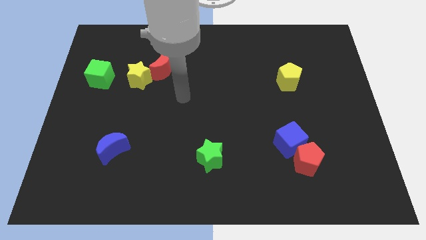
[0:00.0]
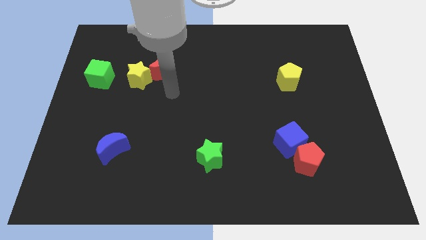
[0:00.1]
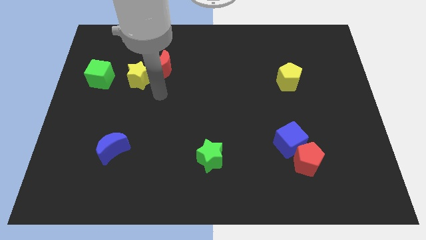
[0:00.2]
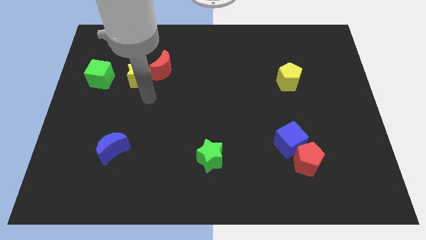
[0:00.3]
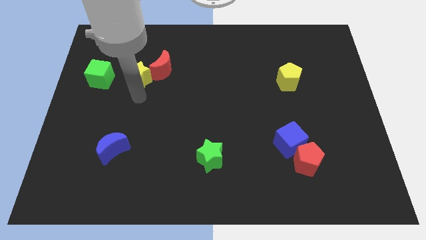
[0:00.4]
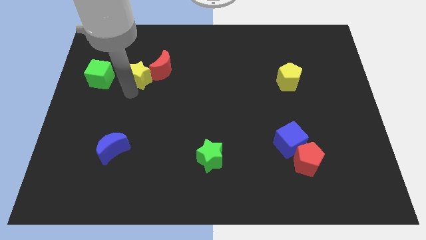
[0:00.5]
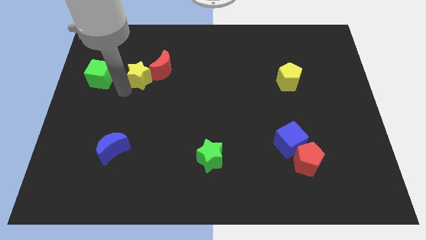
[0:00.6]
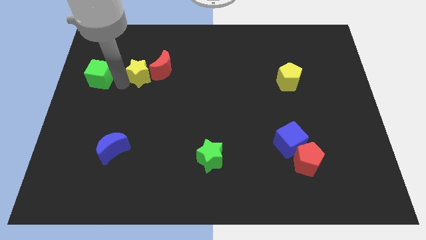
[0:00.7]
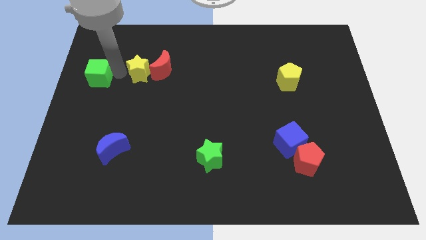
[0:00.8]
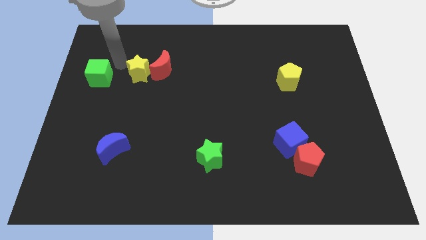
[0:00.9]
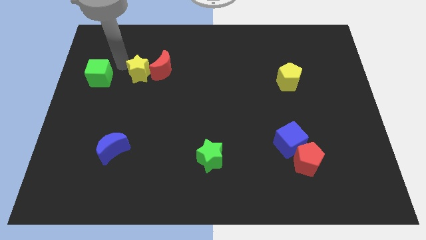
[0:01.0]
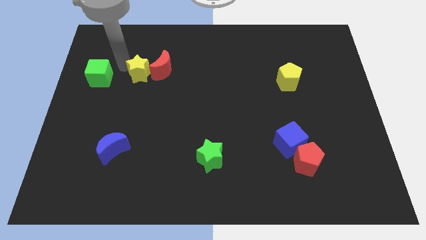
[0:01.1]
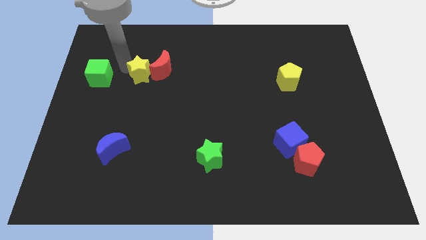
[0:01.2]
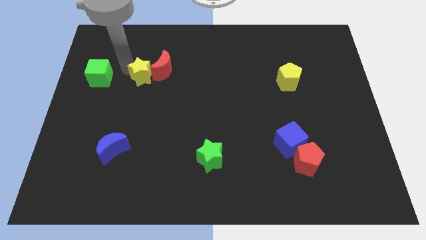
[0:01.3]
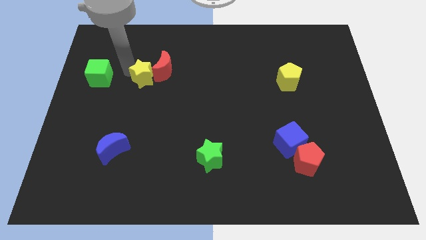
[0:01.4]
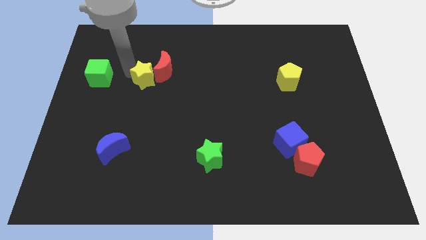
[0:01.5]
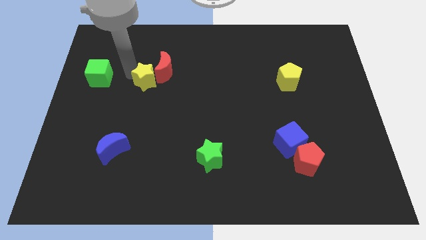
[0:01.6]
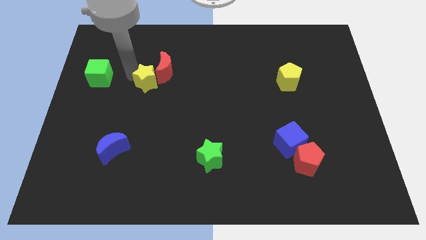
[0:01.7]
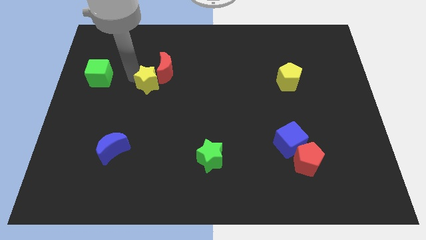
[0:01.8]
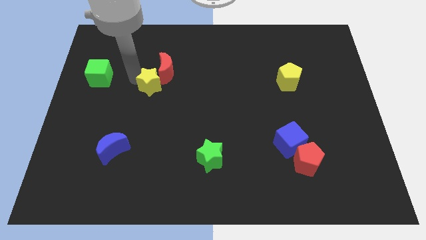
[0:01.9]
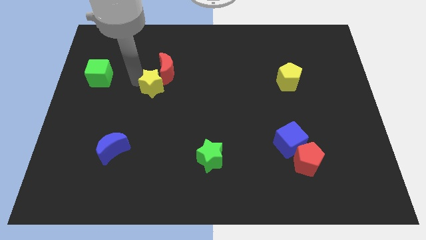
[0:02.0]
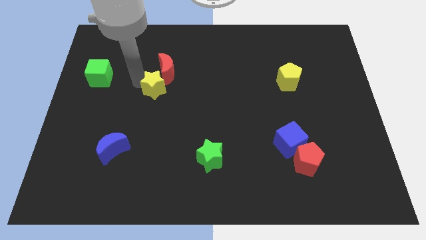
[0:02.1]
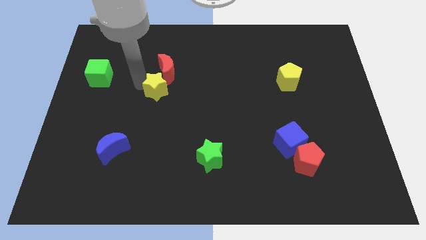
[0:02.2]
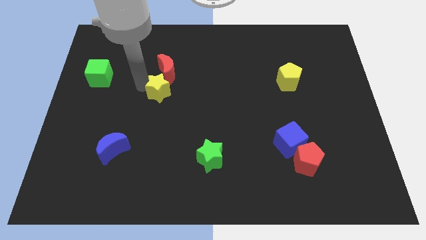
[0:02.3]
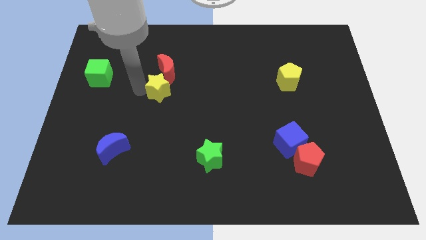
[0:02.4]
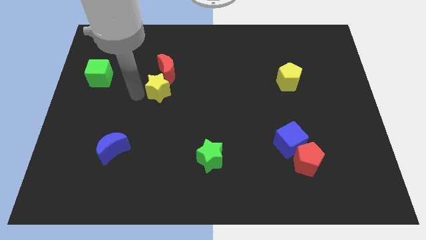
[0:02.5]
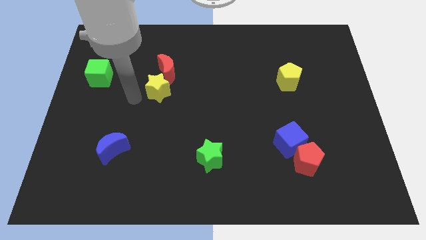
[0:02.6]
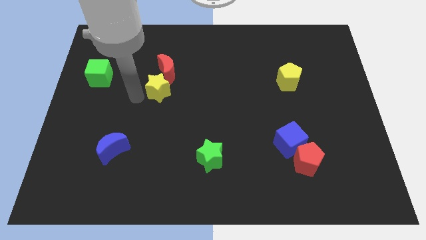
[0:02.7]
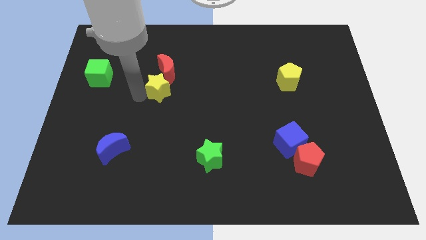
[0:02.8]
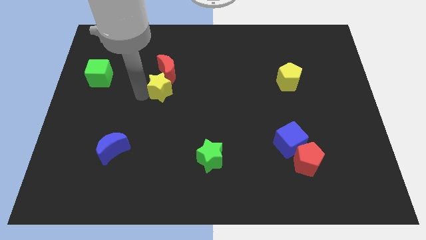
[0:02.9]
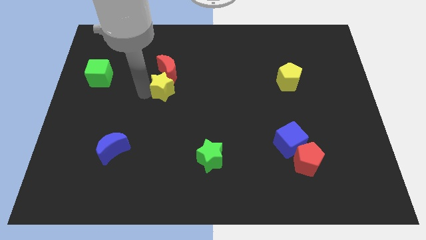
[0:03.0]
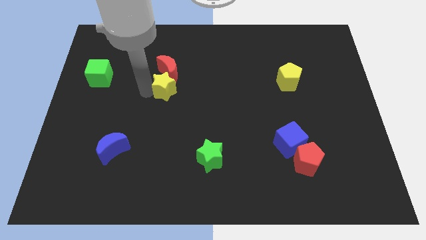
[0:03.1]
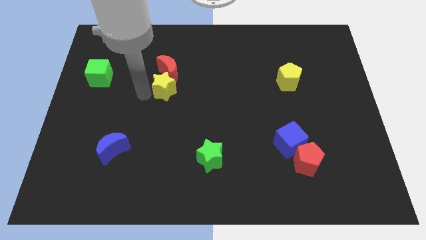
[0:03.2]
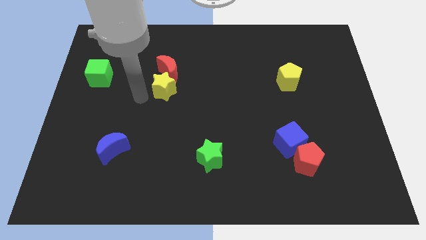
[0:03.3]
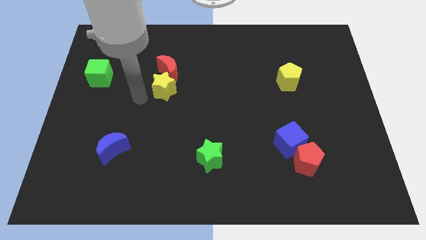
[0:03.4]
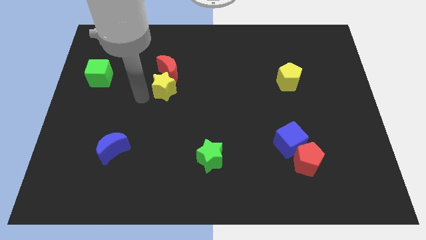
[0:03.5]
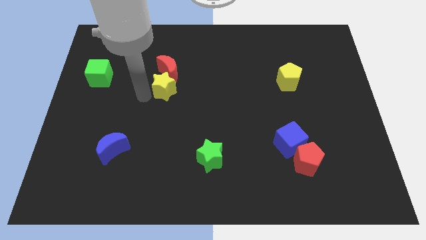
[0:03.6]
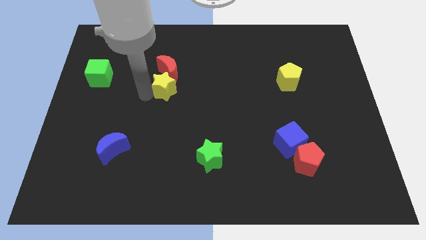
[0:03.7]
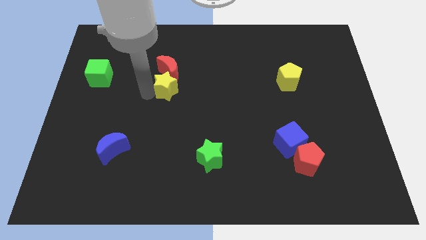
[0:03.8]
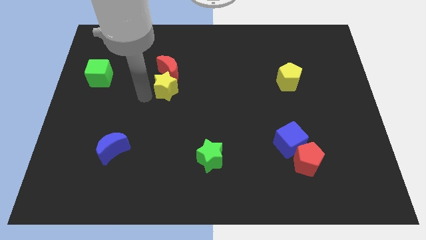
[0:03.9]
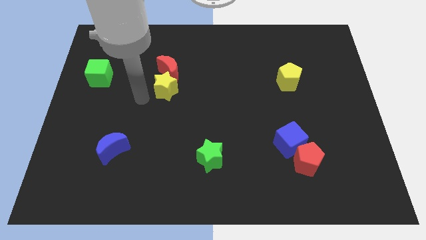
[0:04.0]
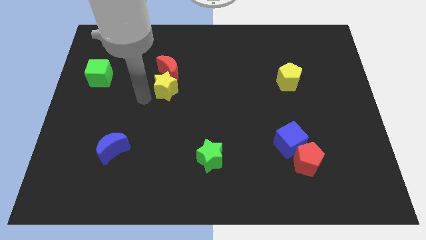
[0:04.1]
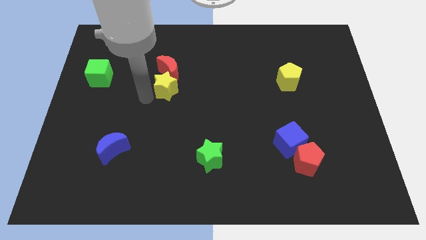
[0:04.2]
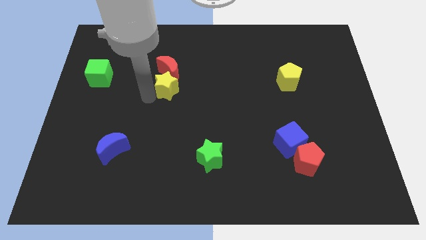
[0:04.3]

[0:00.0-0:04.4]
move the yellow star to the right a little bit

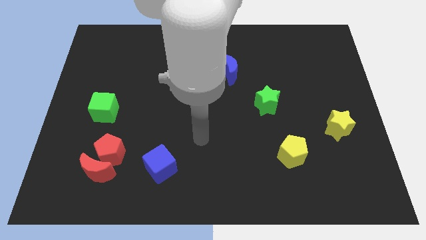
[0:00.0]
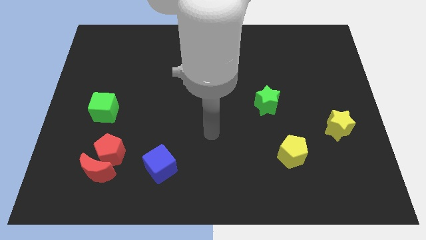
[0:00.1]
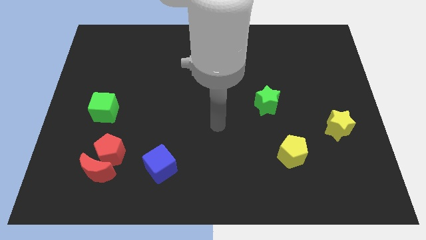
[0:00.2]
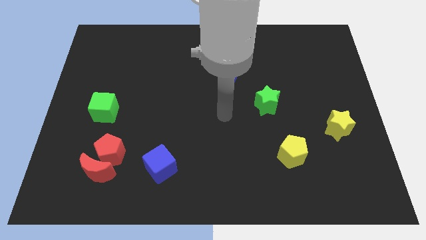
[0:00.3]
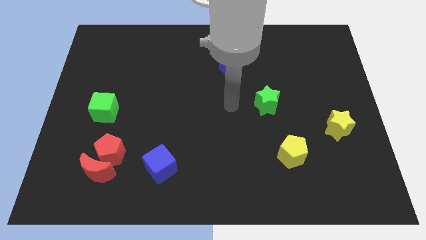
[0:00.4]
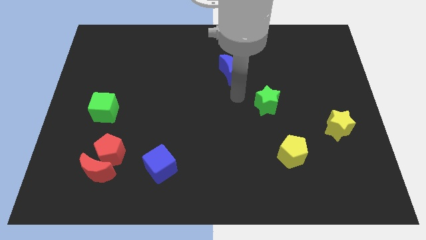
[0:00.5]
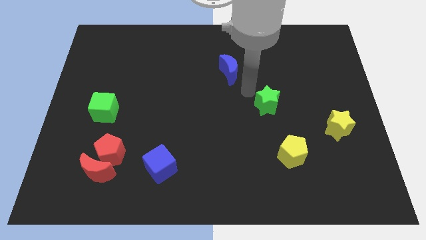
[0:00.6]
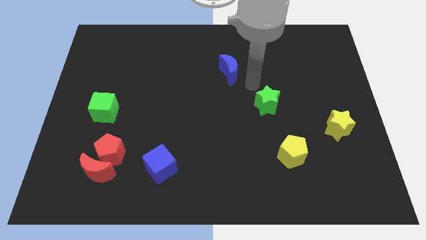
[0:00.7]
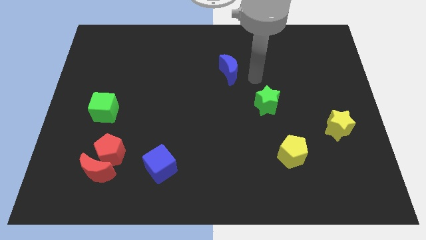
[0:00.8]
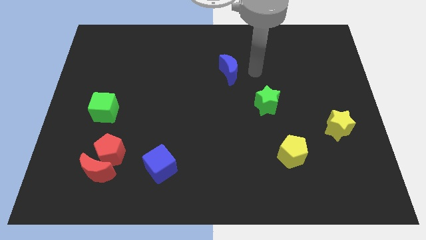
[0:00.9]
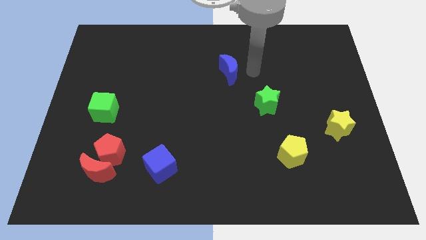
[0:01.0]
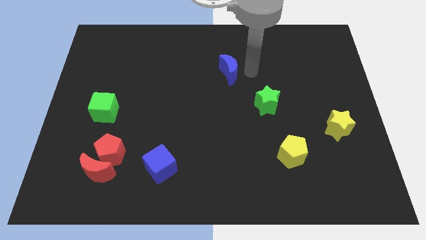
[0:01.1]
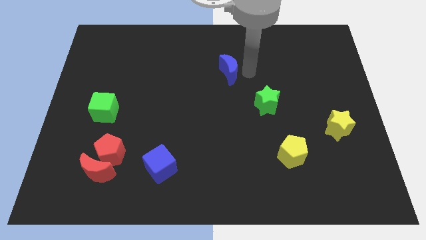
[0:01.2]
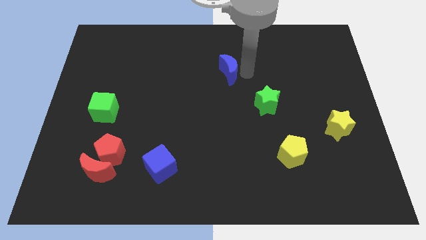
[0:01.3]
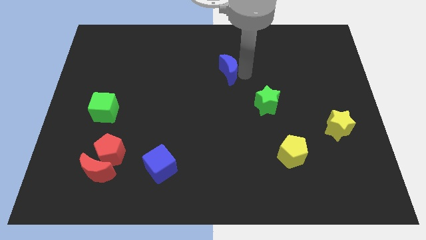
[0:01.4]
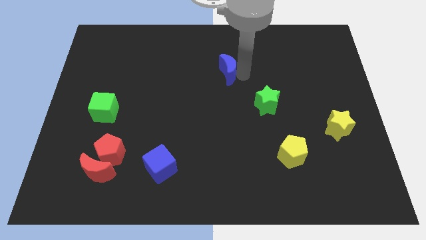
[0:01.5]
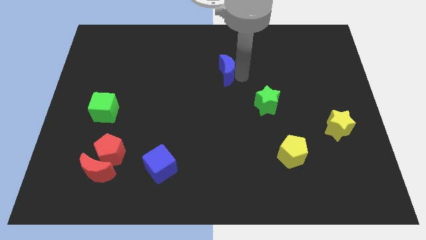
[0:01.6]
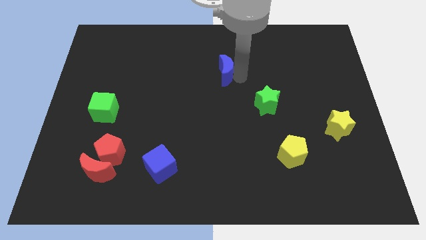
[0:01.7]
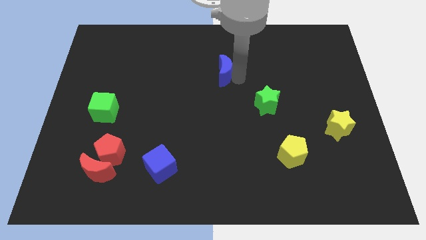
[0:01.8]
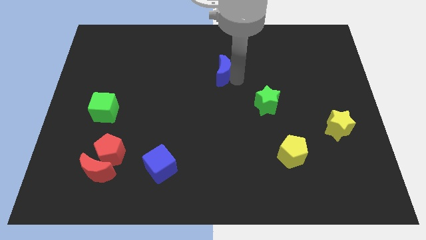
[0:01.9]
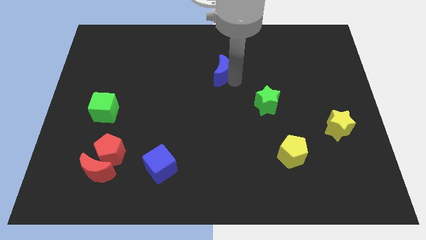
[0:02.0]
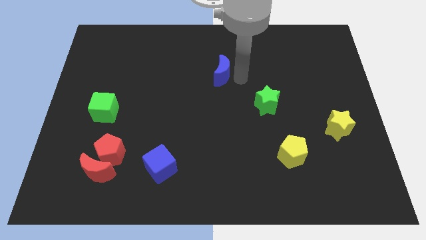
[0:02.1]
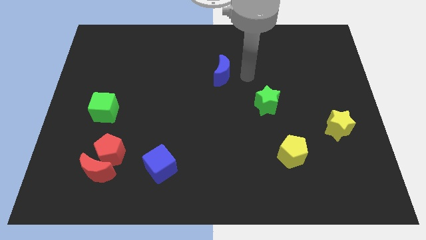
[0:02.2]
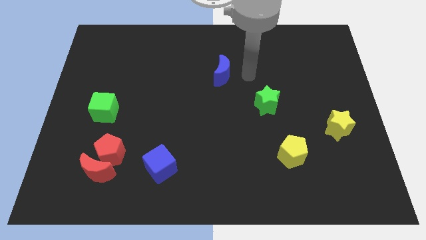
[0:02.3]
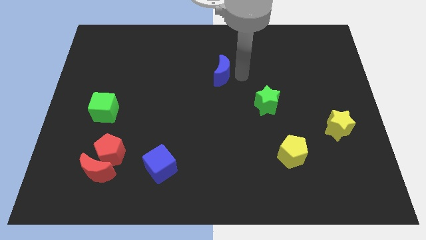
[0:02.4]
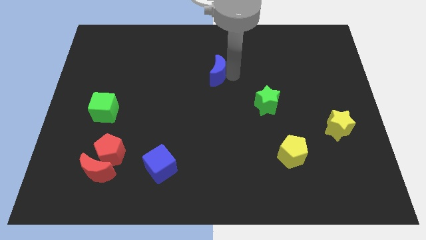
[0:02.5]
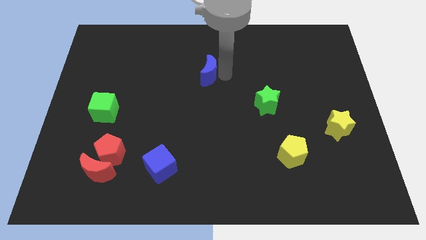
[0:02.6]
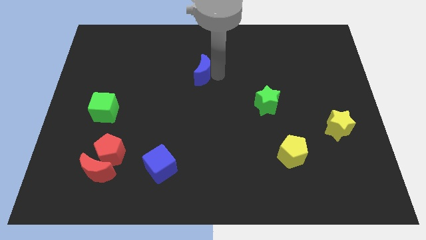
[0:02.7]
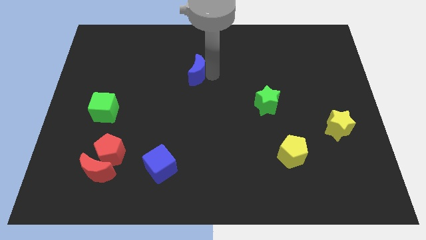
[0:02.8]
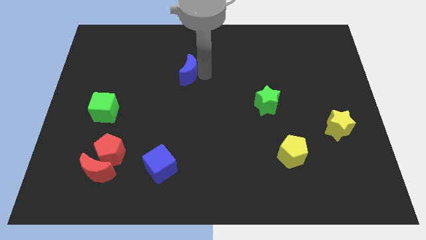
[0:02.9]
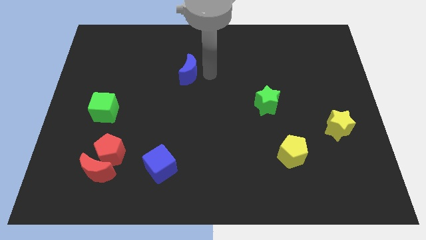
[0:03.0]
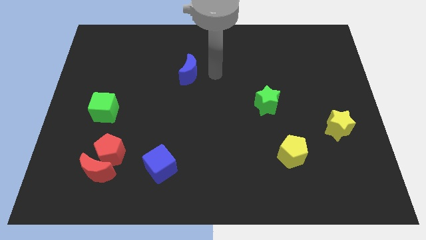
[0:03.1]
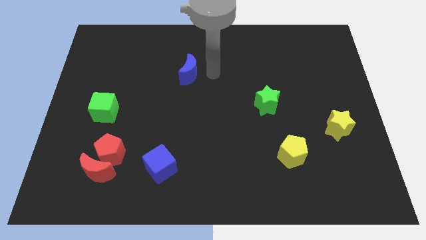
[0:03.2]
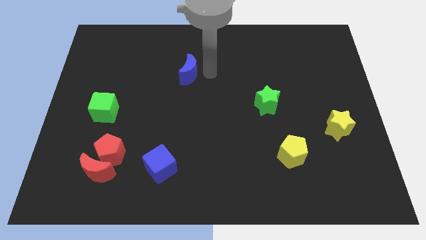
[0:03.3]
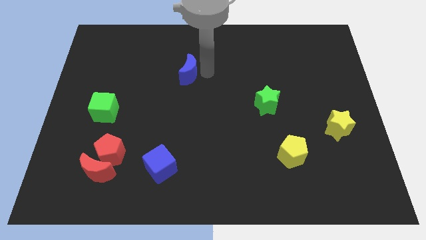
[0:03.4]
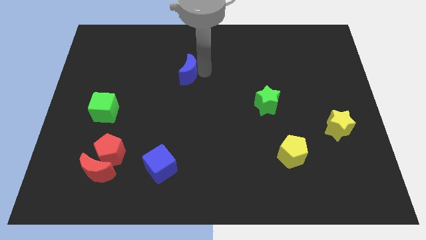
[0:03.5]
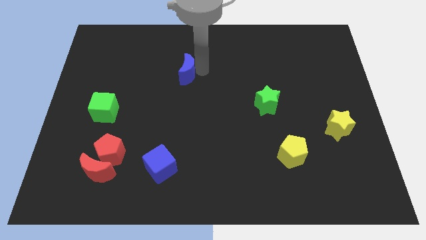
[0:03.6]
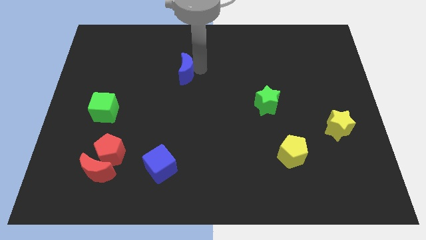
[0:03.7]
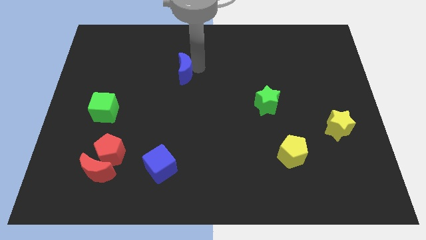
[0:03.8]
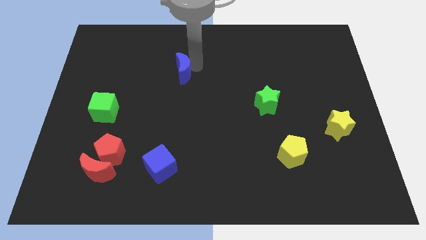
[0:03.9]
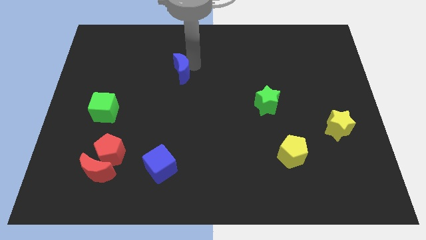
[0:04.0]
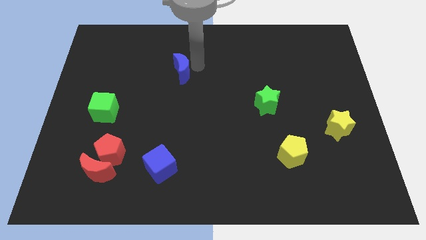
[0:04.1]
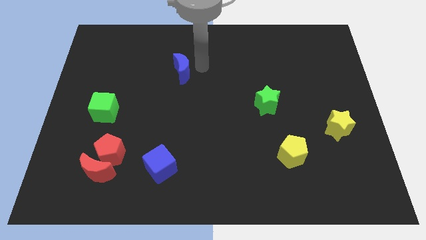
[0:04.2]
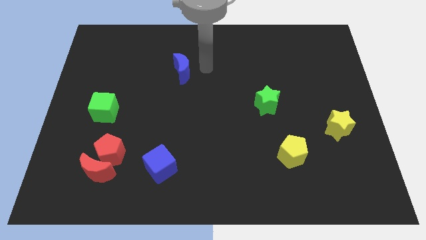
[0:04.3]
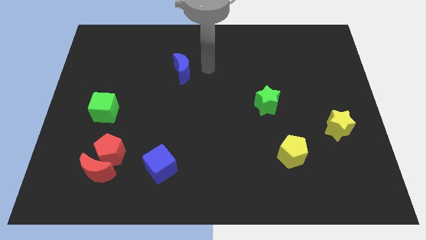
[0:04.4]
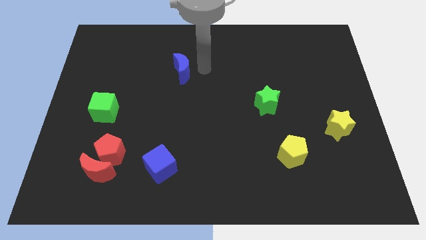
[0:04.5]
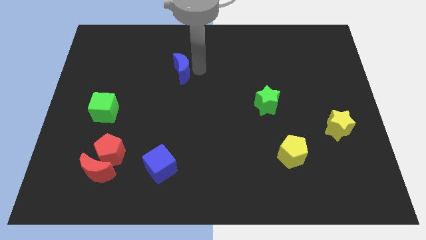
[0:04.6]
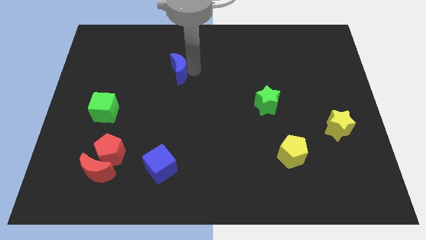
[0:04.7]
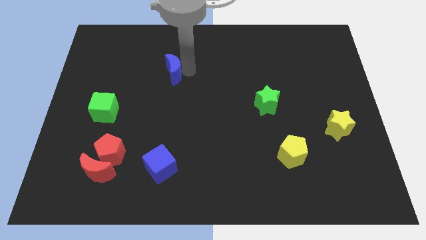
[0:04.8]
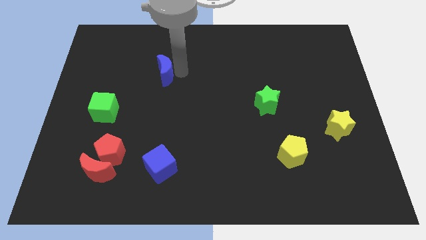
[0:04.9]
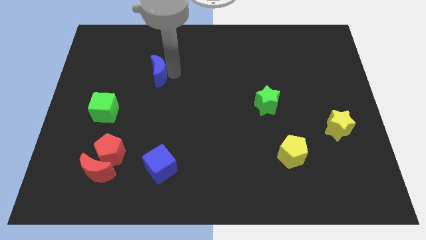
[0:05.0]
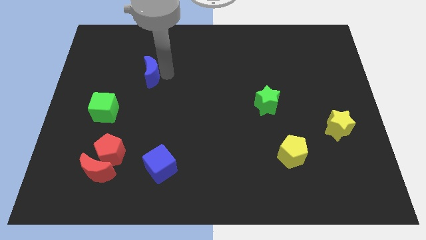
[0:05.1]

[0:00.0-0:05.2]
push the blue moon left
